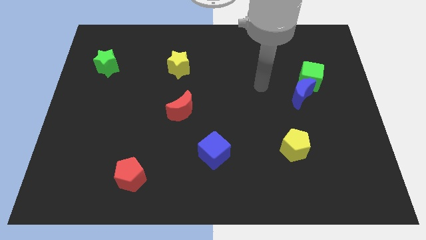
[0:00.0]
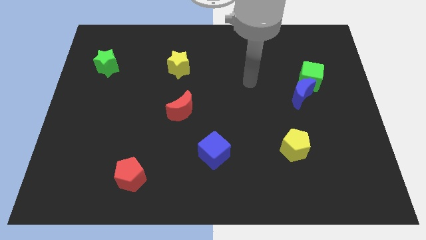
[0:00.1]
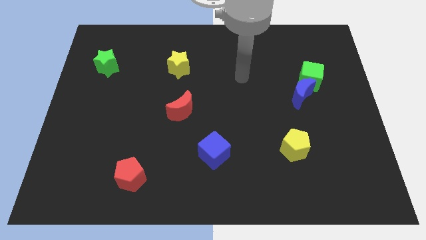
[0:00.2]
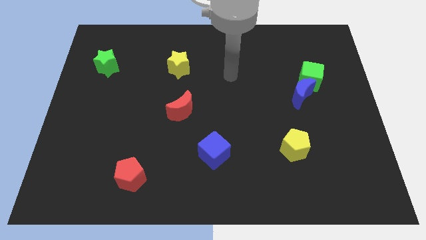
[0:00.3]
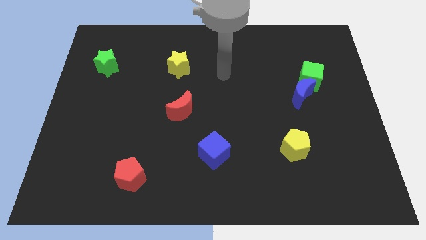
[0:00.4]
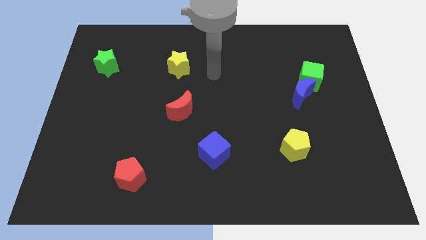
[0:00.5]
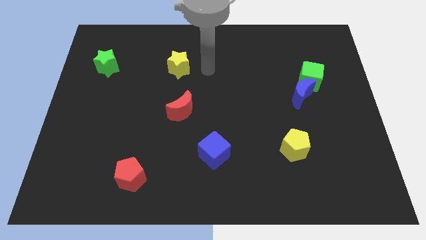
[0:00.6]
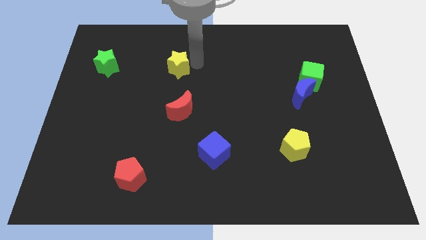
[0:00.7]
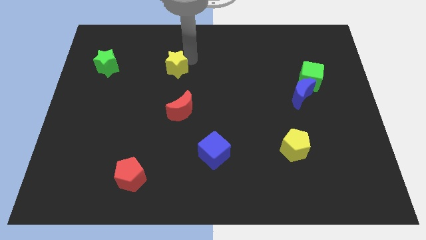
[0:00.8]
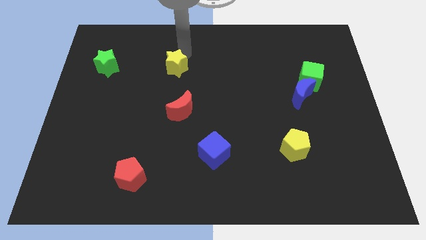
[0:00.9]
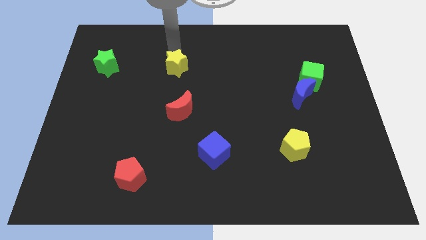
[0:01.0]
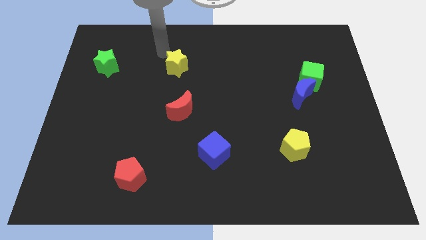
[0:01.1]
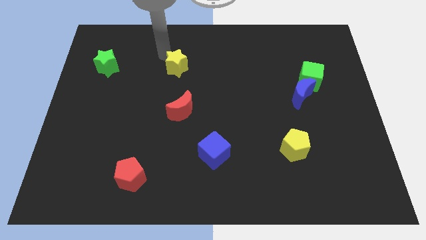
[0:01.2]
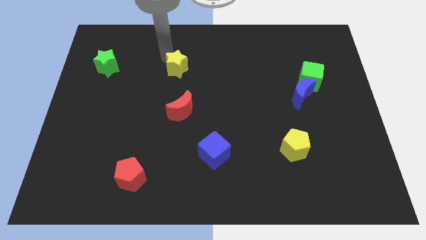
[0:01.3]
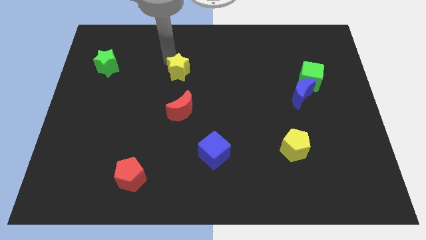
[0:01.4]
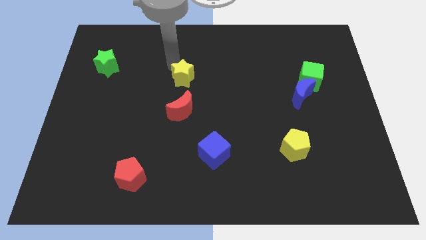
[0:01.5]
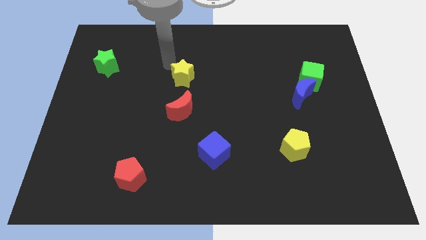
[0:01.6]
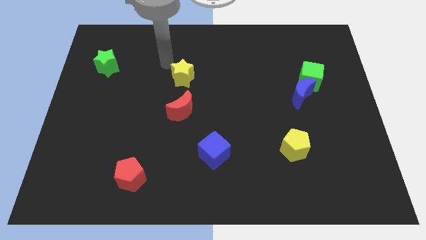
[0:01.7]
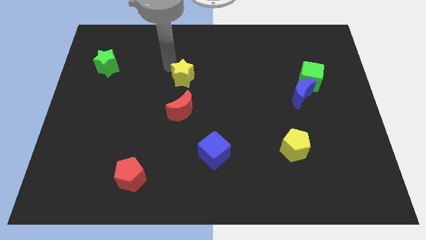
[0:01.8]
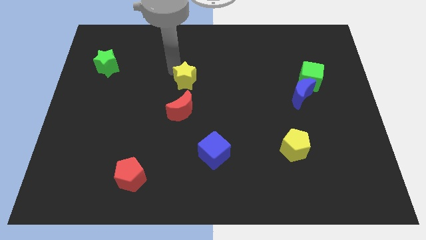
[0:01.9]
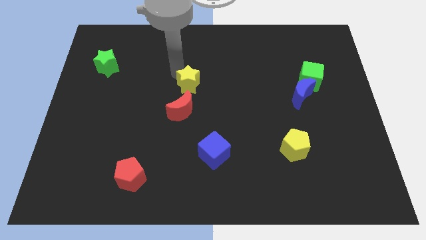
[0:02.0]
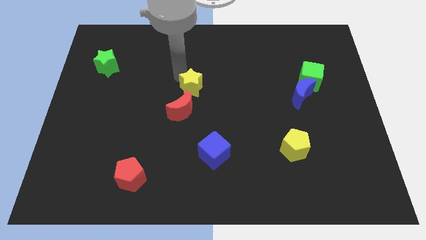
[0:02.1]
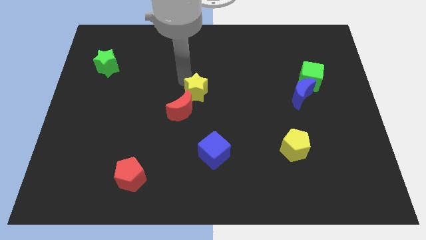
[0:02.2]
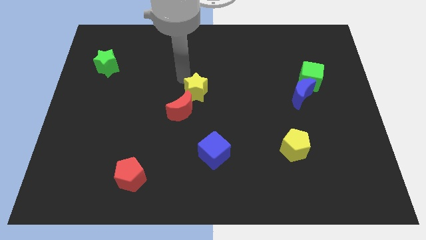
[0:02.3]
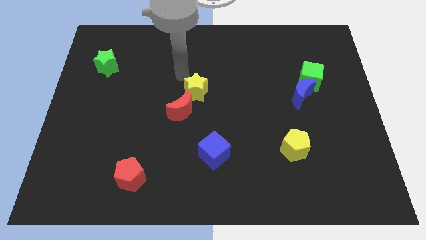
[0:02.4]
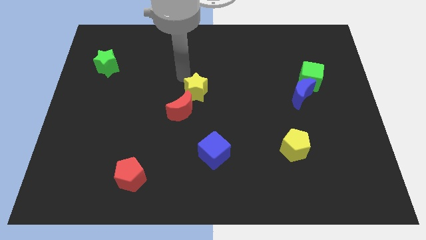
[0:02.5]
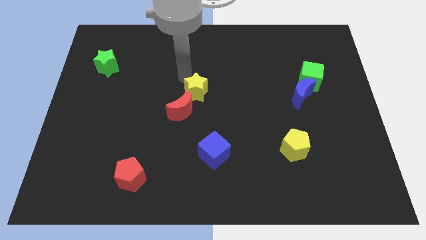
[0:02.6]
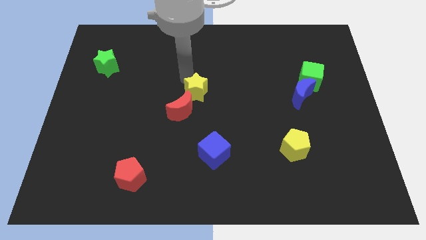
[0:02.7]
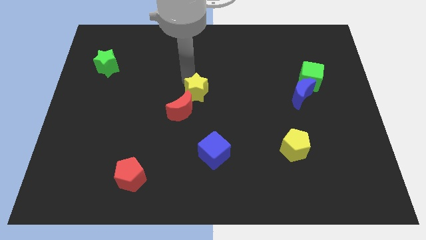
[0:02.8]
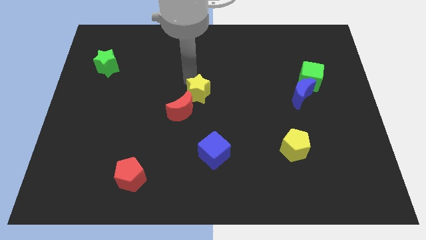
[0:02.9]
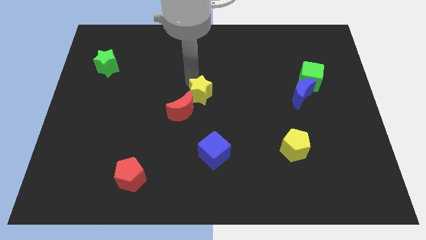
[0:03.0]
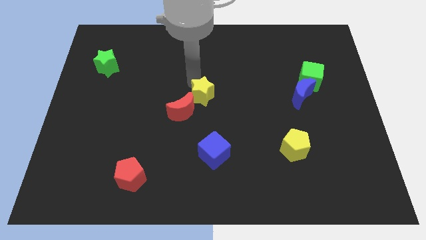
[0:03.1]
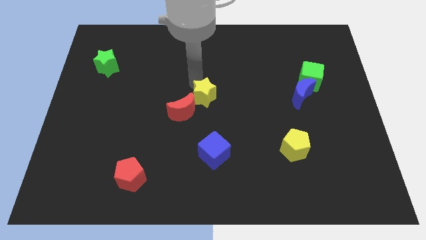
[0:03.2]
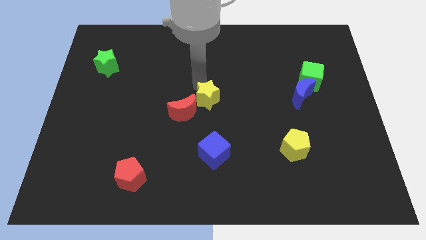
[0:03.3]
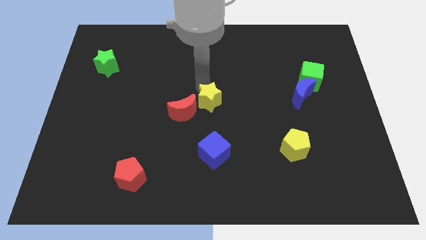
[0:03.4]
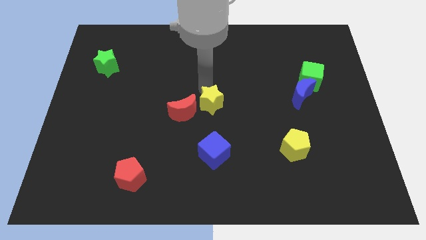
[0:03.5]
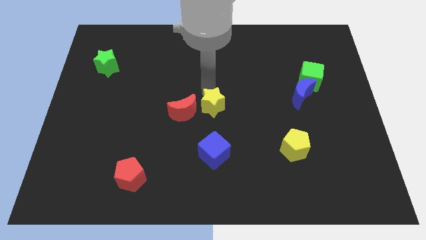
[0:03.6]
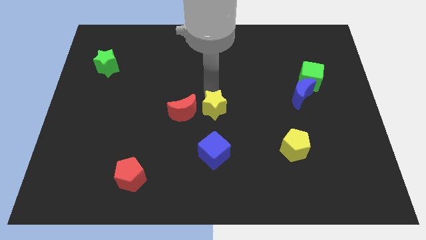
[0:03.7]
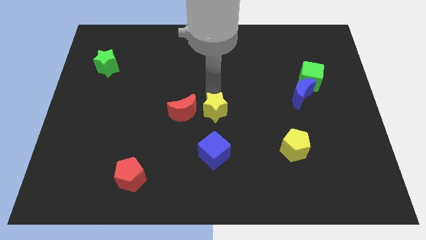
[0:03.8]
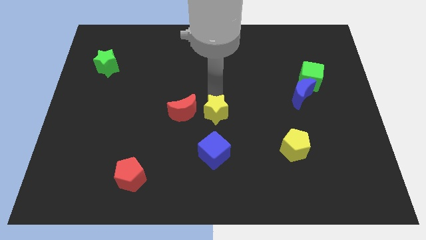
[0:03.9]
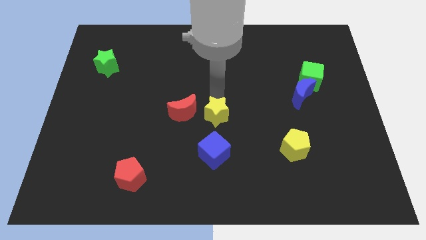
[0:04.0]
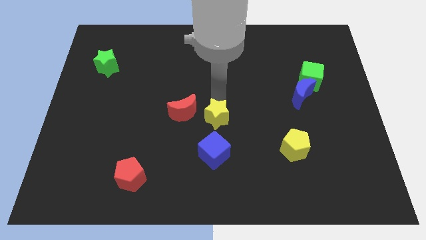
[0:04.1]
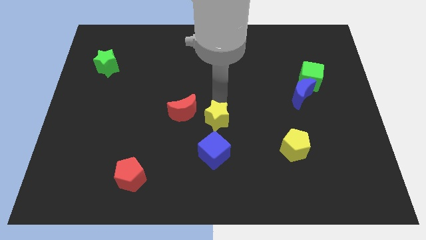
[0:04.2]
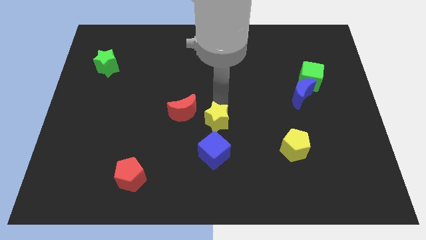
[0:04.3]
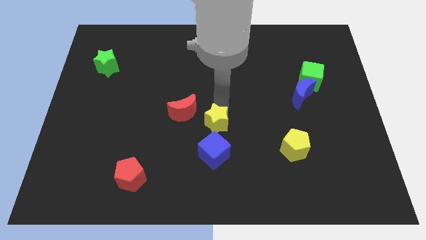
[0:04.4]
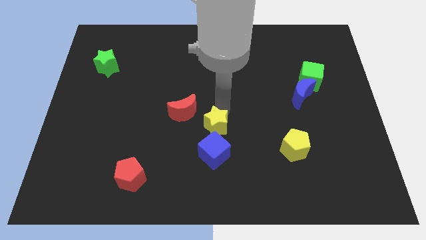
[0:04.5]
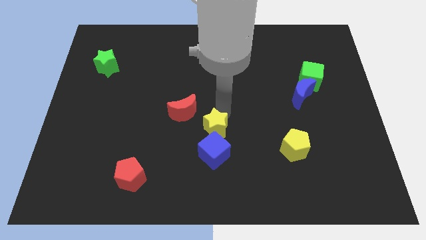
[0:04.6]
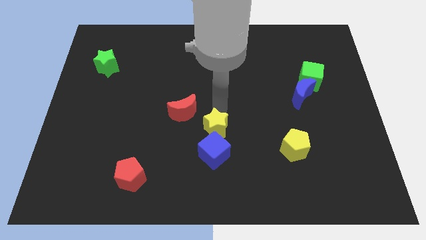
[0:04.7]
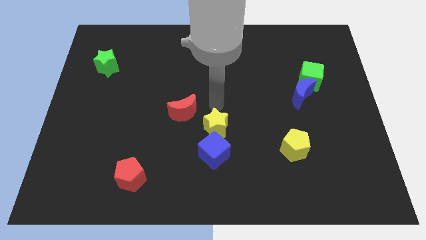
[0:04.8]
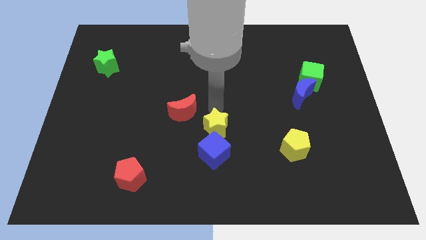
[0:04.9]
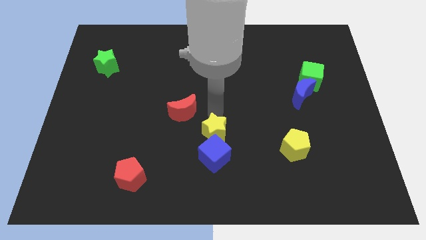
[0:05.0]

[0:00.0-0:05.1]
push the yellow star close to the blue cube

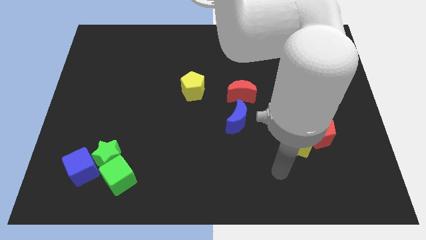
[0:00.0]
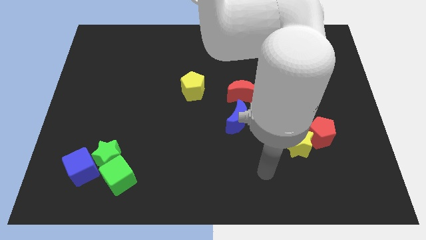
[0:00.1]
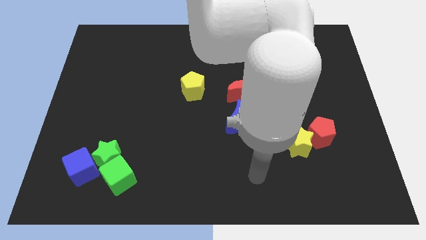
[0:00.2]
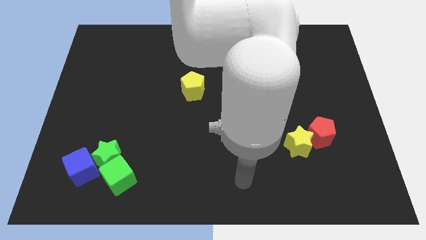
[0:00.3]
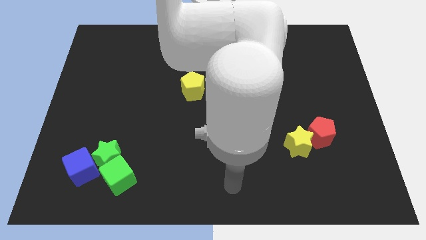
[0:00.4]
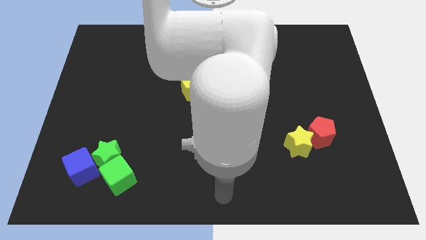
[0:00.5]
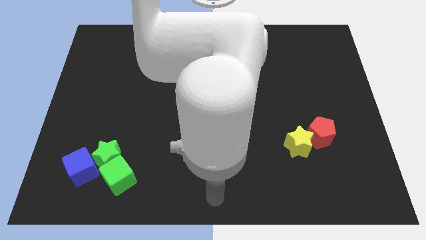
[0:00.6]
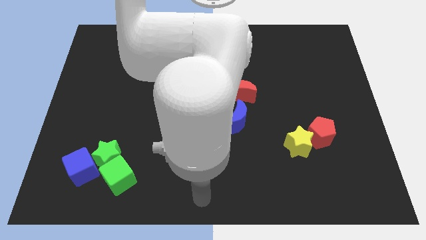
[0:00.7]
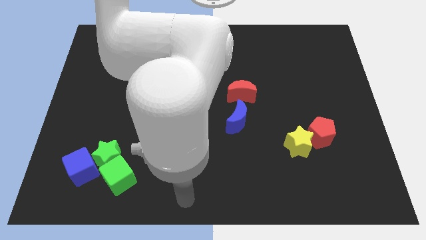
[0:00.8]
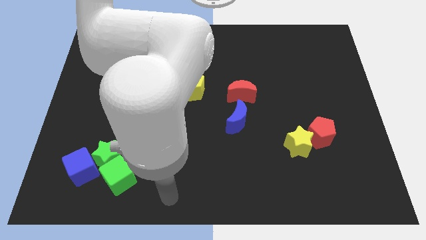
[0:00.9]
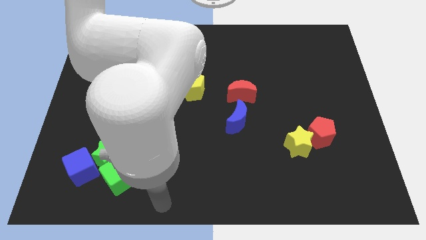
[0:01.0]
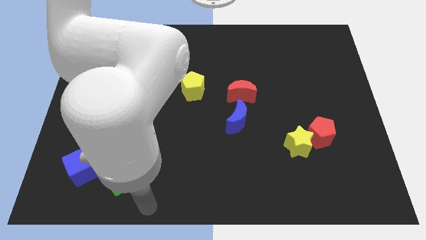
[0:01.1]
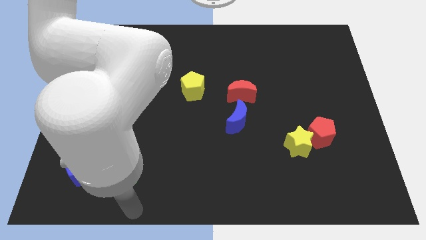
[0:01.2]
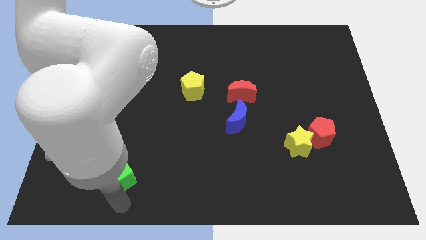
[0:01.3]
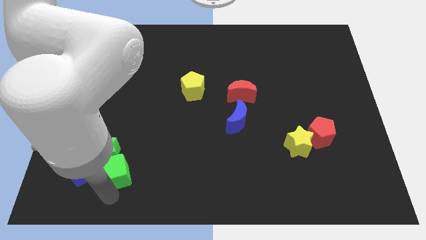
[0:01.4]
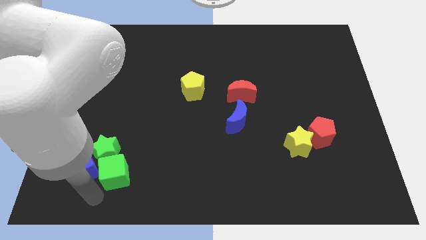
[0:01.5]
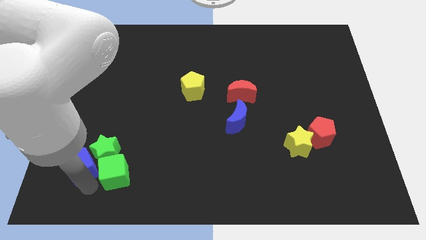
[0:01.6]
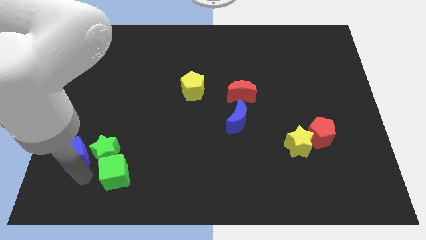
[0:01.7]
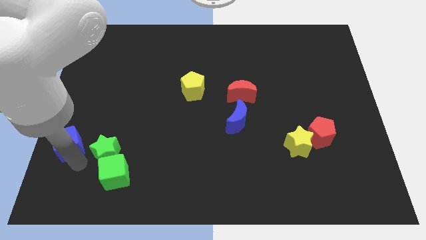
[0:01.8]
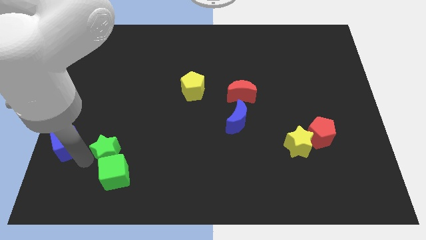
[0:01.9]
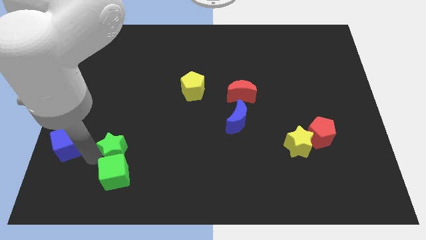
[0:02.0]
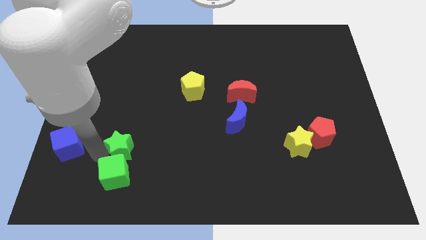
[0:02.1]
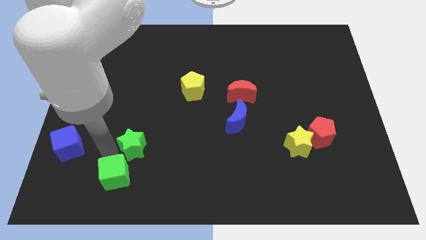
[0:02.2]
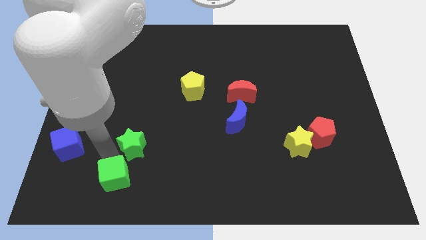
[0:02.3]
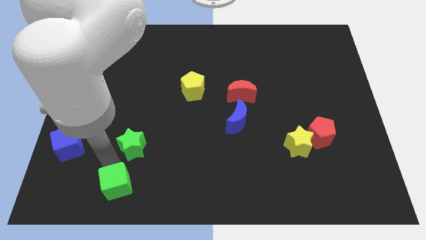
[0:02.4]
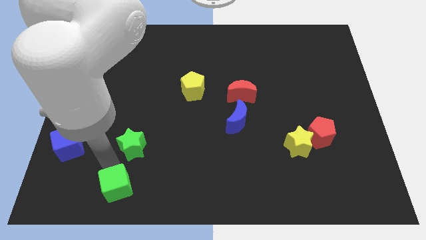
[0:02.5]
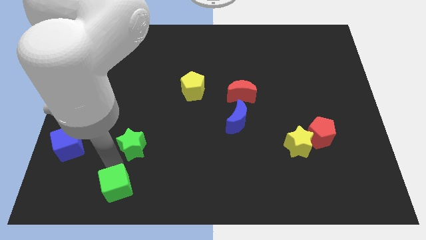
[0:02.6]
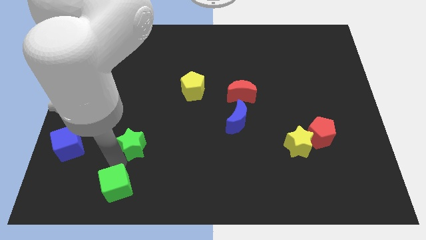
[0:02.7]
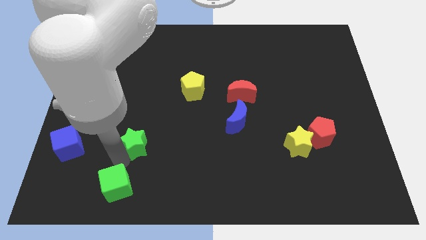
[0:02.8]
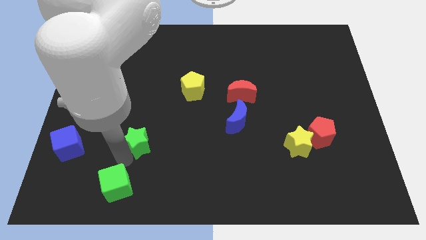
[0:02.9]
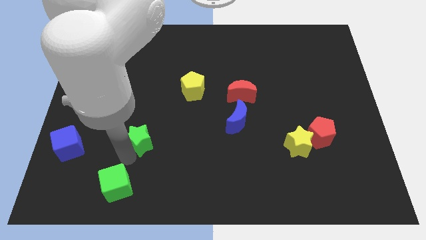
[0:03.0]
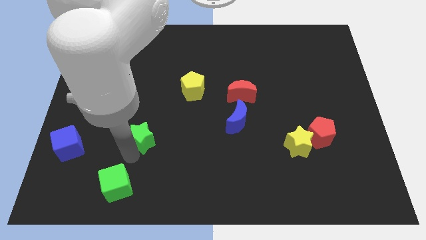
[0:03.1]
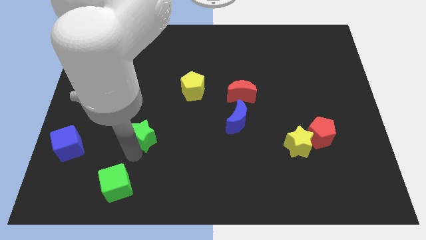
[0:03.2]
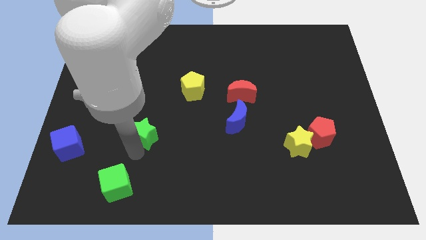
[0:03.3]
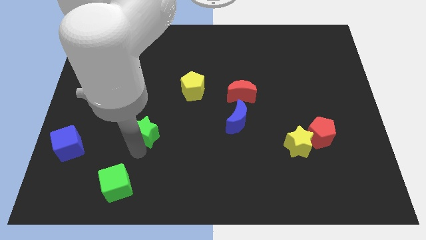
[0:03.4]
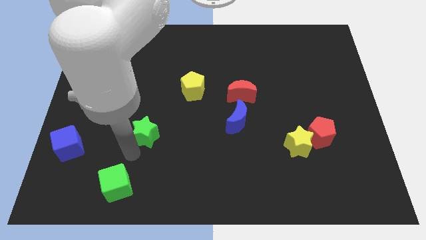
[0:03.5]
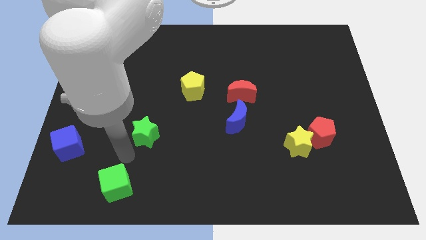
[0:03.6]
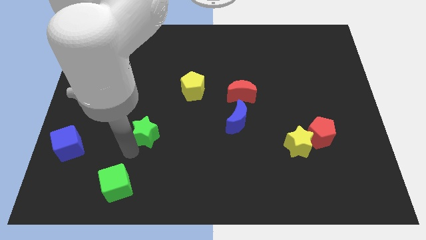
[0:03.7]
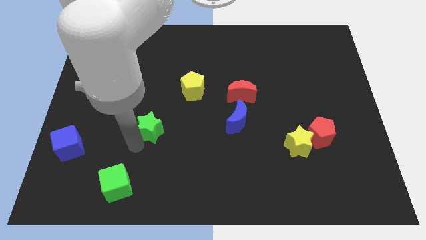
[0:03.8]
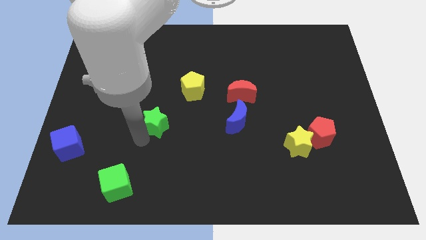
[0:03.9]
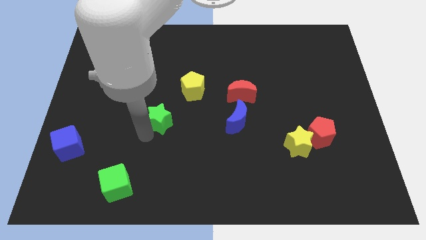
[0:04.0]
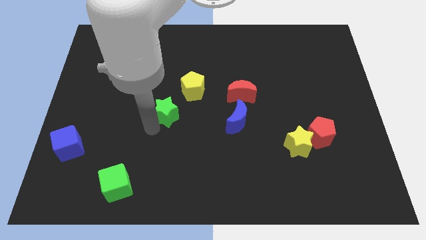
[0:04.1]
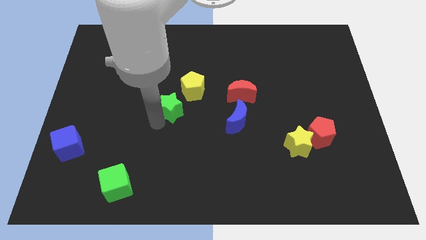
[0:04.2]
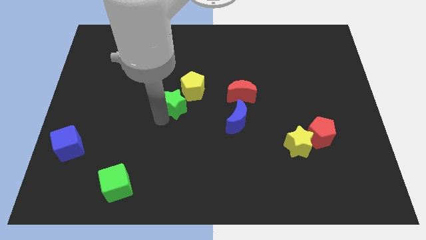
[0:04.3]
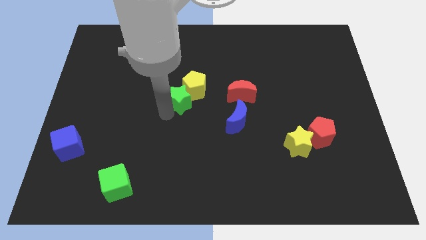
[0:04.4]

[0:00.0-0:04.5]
move the green star towards the yellow pentagon
